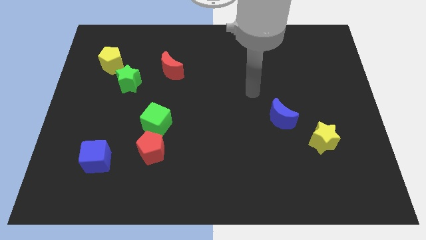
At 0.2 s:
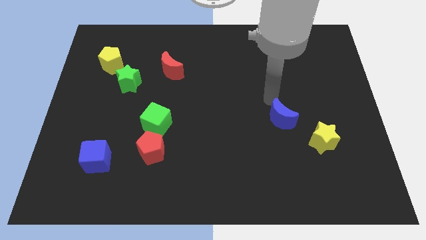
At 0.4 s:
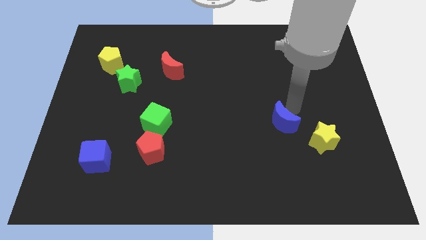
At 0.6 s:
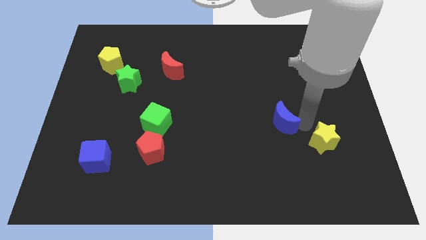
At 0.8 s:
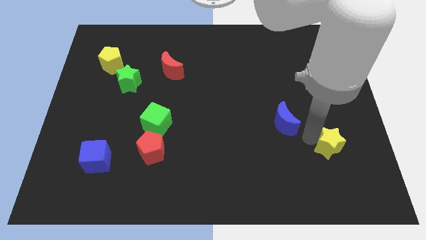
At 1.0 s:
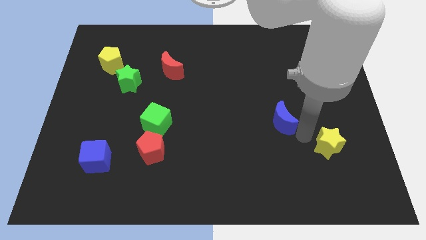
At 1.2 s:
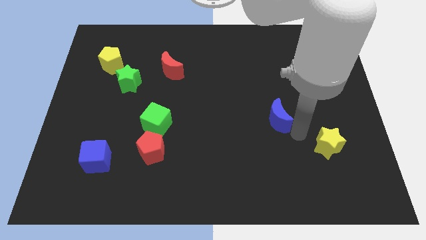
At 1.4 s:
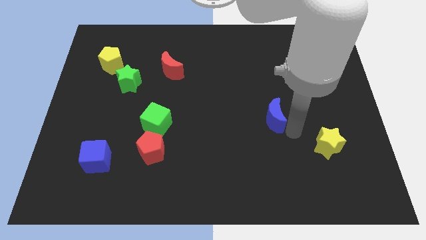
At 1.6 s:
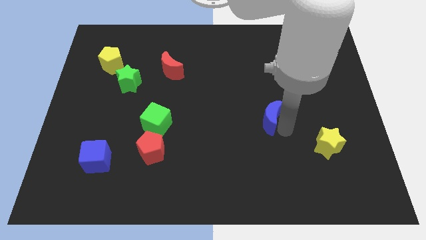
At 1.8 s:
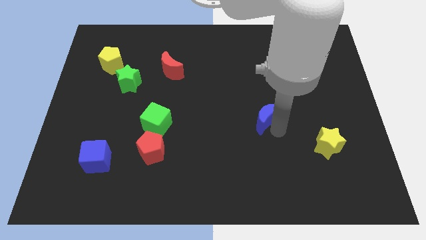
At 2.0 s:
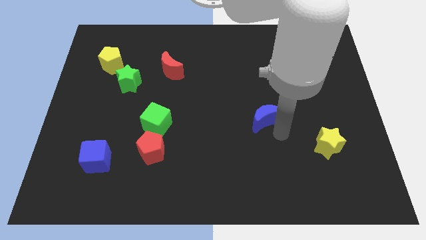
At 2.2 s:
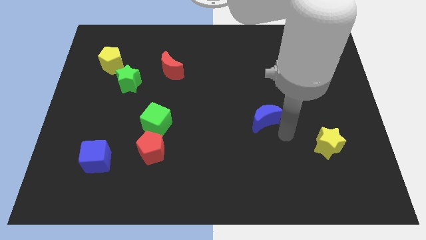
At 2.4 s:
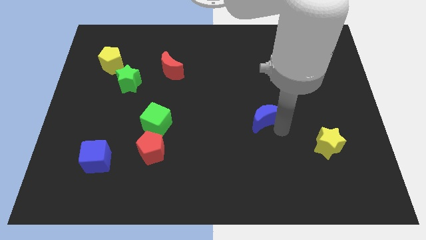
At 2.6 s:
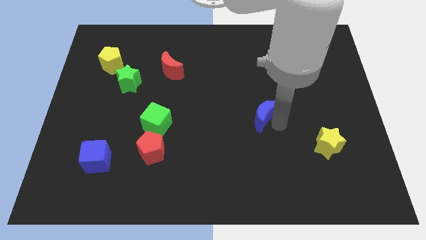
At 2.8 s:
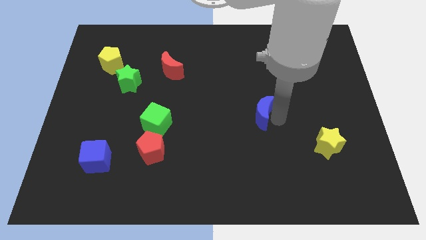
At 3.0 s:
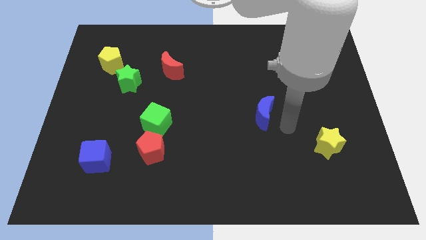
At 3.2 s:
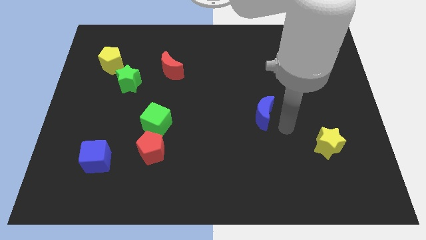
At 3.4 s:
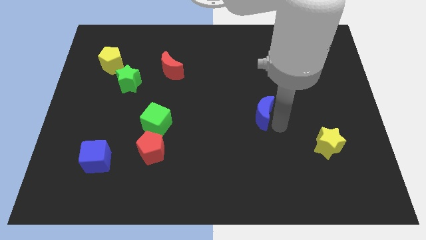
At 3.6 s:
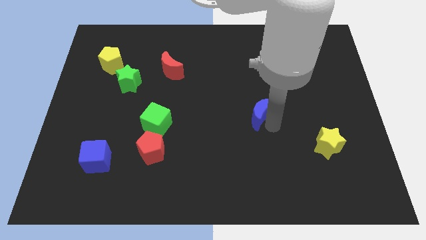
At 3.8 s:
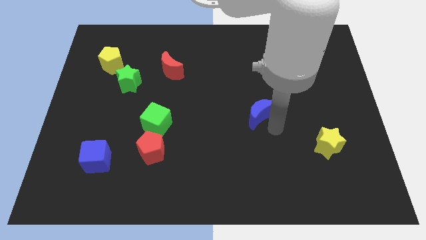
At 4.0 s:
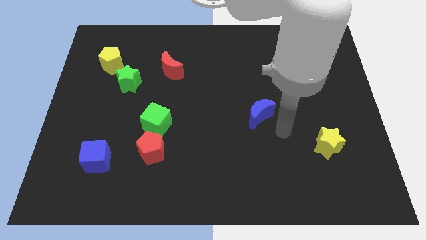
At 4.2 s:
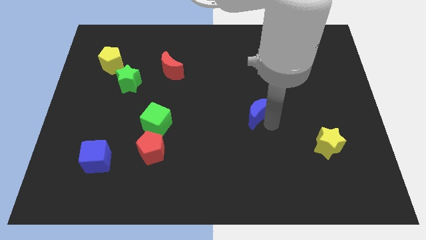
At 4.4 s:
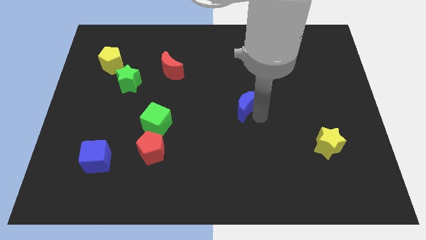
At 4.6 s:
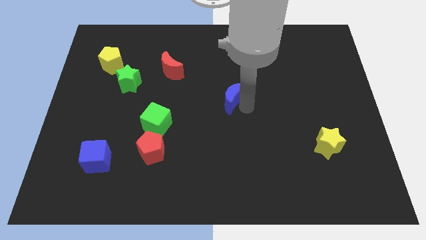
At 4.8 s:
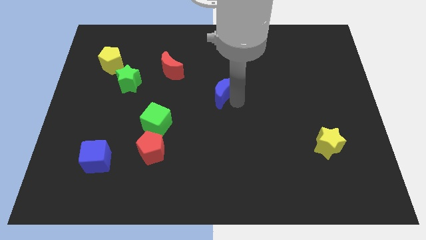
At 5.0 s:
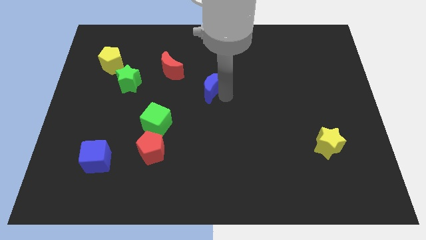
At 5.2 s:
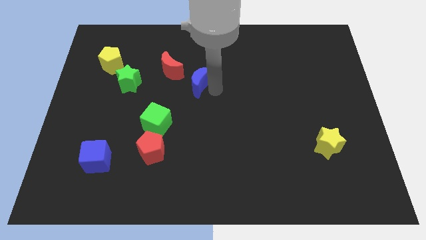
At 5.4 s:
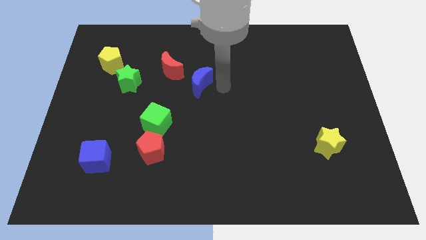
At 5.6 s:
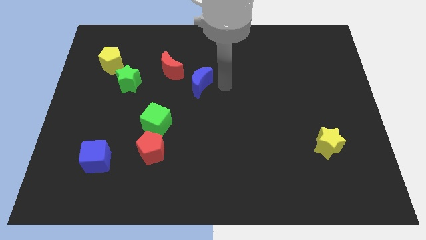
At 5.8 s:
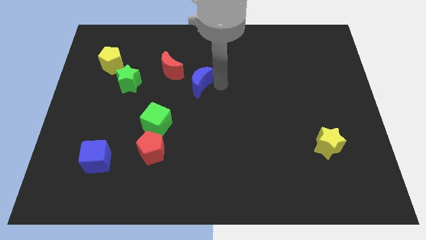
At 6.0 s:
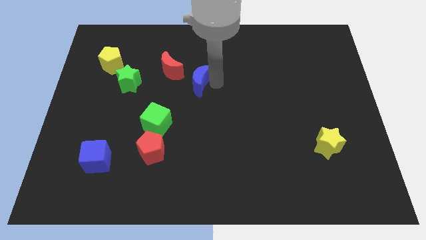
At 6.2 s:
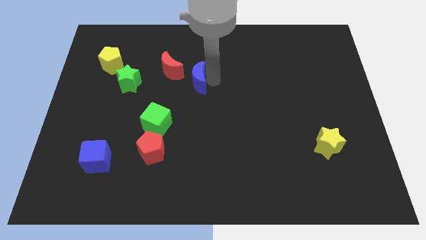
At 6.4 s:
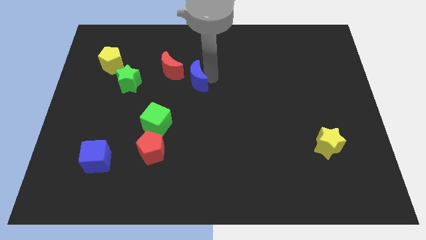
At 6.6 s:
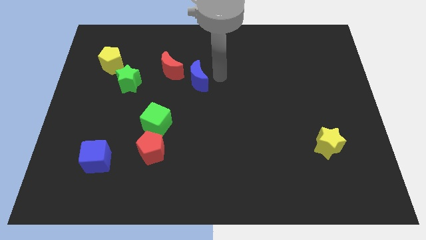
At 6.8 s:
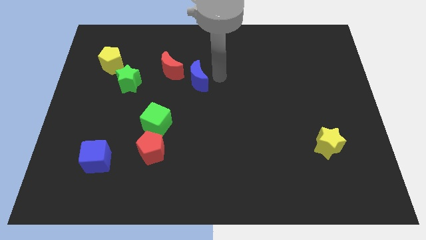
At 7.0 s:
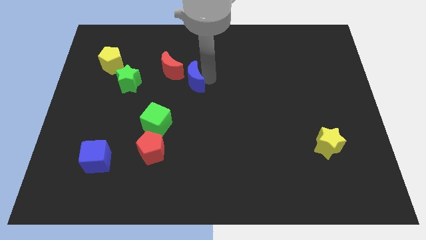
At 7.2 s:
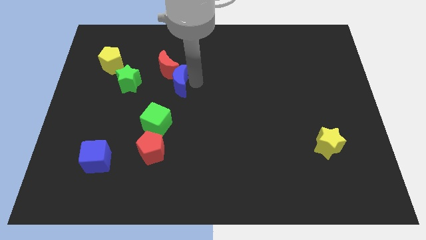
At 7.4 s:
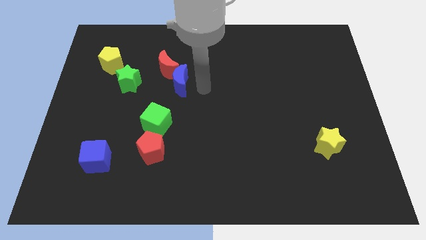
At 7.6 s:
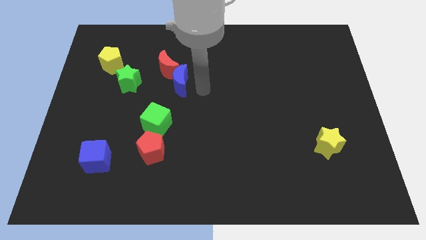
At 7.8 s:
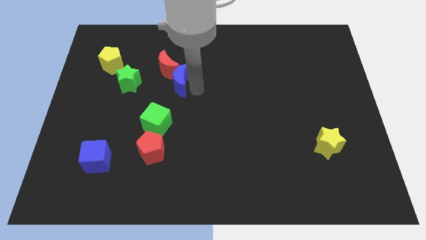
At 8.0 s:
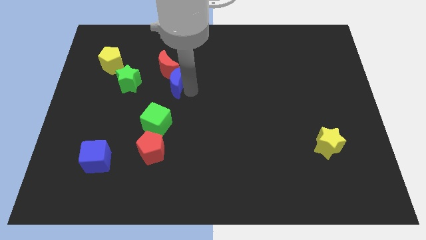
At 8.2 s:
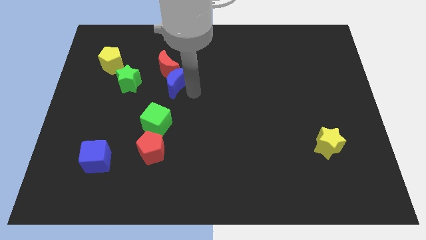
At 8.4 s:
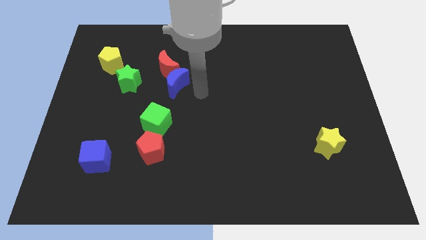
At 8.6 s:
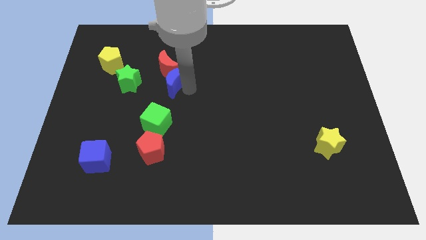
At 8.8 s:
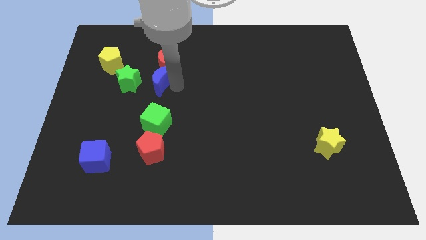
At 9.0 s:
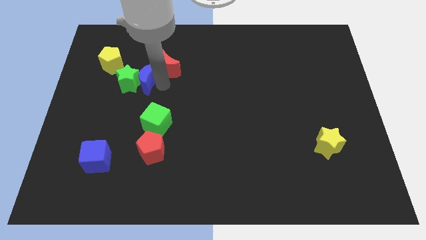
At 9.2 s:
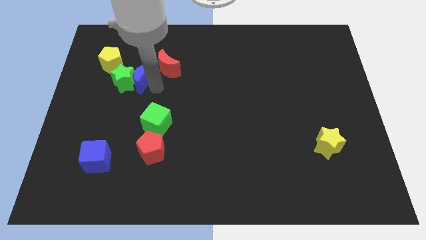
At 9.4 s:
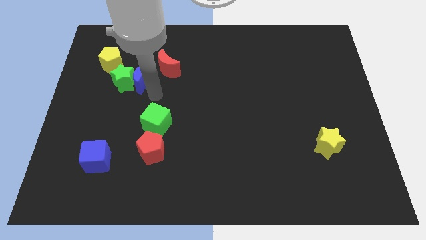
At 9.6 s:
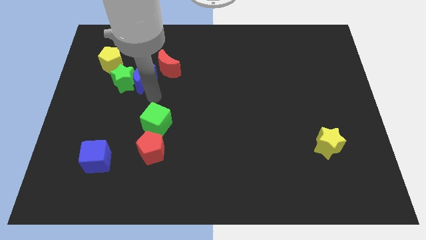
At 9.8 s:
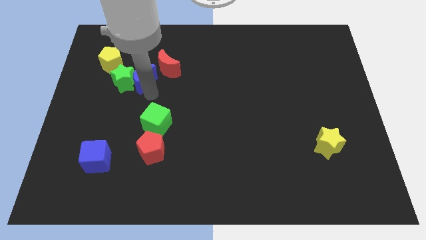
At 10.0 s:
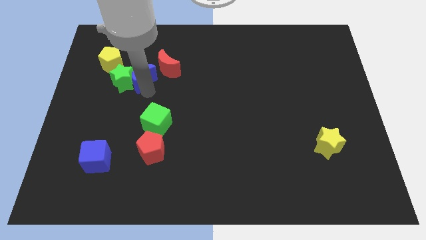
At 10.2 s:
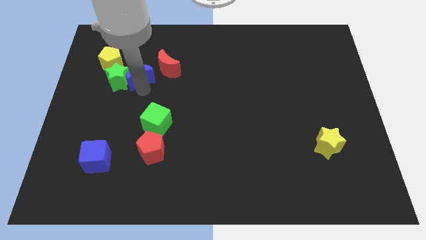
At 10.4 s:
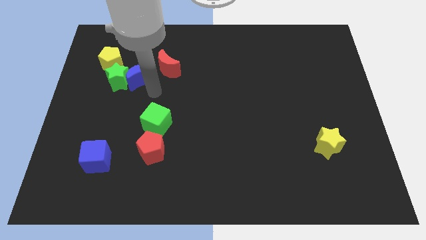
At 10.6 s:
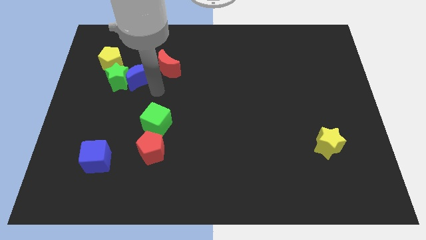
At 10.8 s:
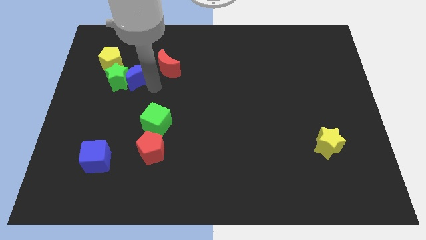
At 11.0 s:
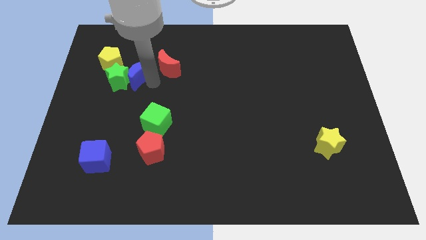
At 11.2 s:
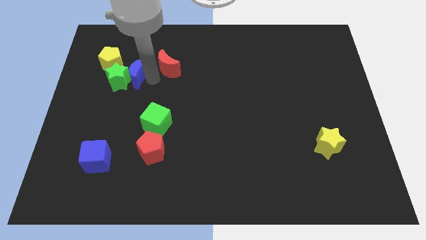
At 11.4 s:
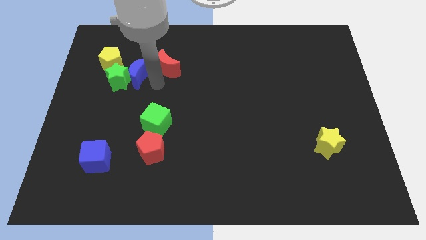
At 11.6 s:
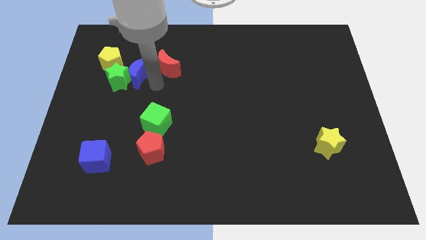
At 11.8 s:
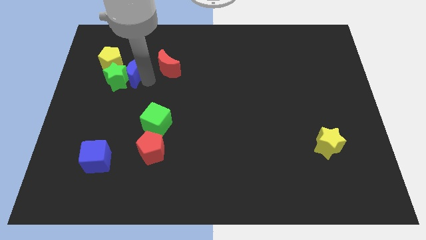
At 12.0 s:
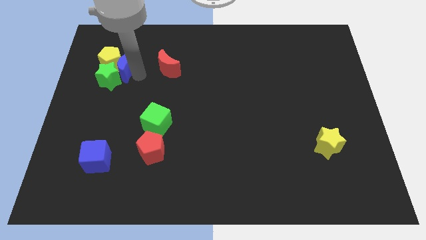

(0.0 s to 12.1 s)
put the blue moon close to the yellow pentagon

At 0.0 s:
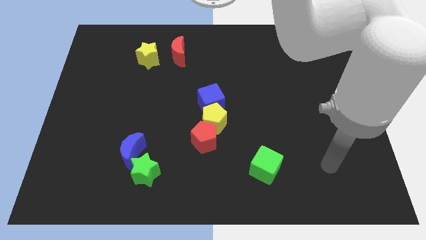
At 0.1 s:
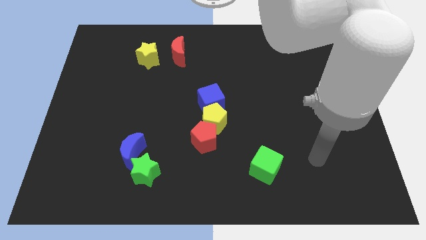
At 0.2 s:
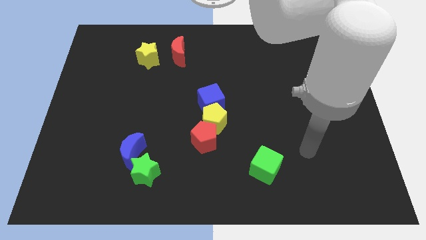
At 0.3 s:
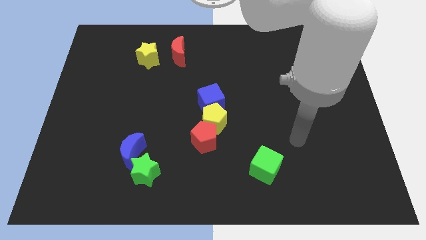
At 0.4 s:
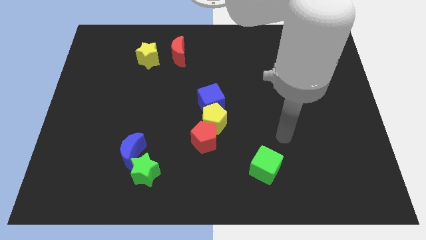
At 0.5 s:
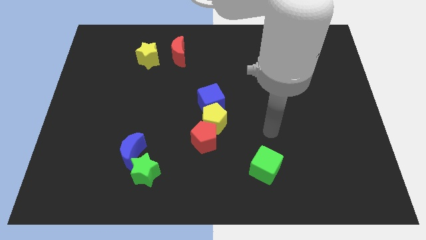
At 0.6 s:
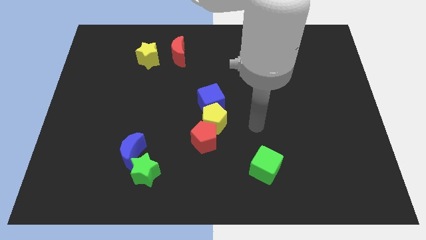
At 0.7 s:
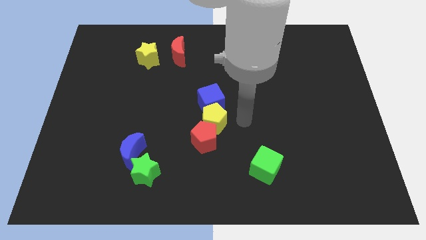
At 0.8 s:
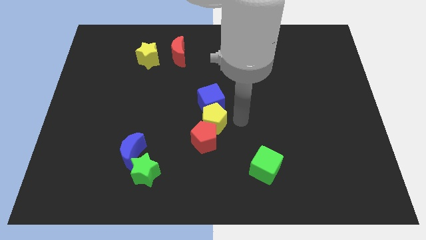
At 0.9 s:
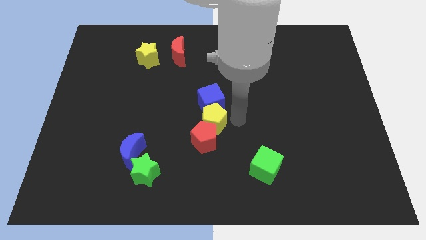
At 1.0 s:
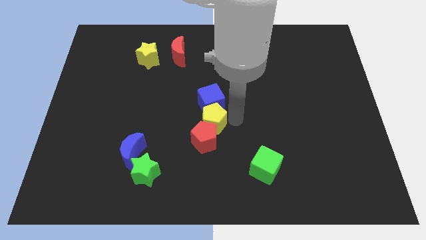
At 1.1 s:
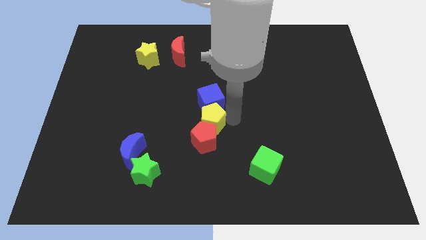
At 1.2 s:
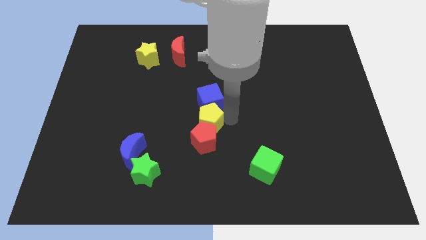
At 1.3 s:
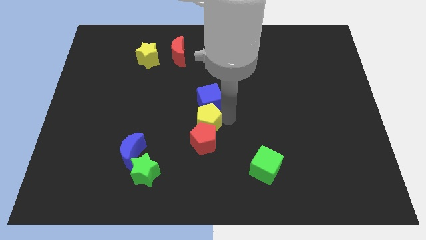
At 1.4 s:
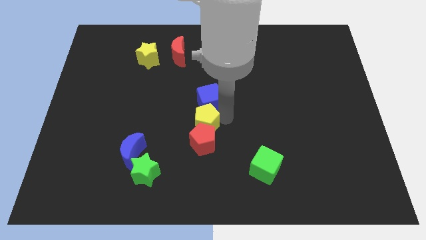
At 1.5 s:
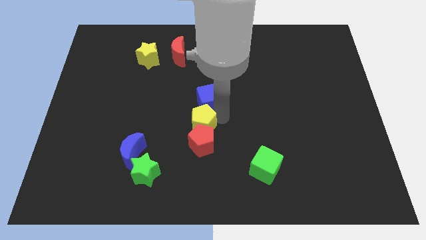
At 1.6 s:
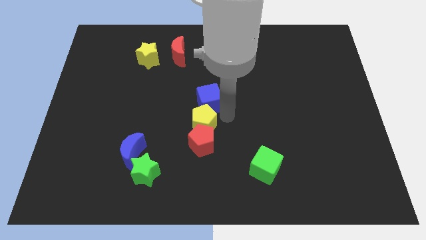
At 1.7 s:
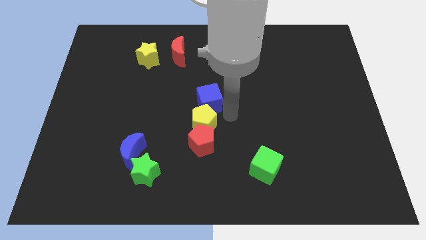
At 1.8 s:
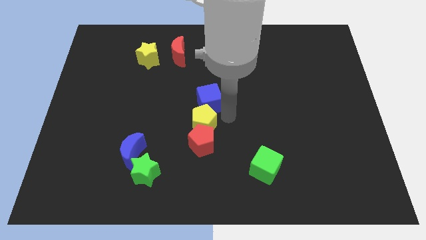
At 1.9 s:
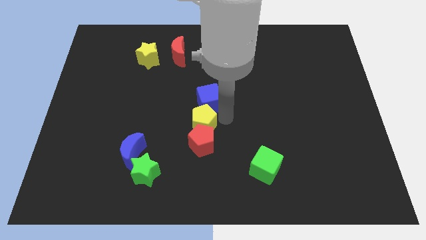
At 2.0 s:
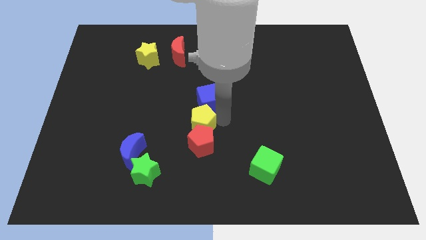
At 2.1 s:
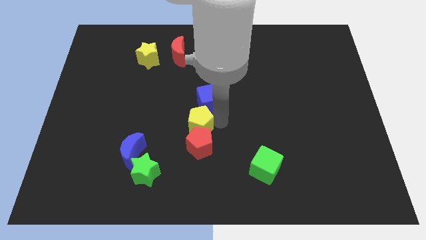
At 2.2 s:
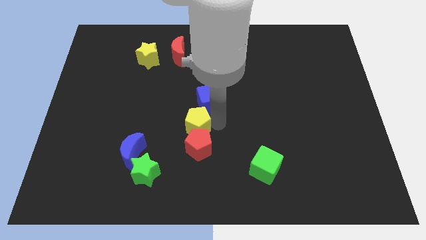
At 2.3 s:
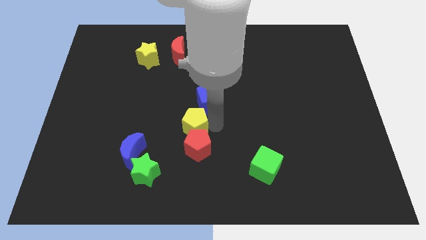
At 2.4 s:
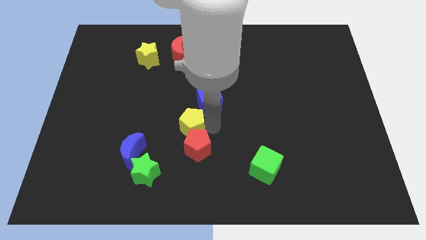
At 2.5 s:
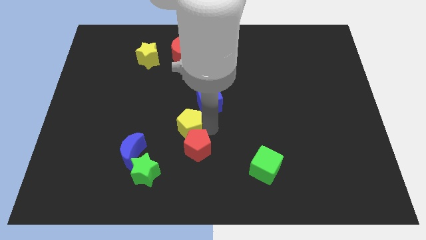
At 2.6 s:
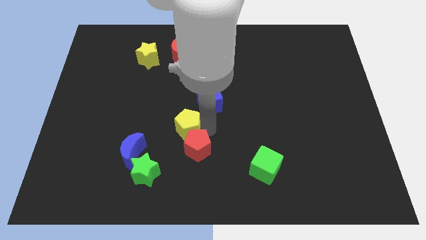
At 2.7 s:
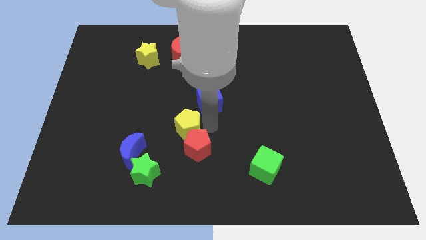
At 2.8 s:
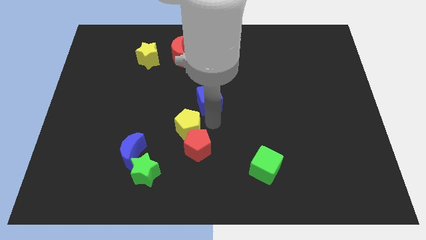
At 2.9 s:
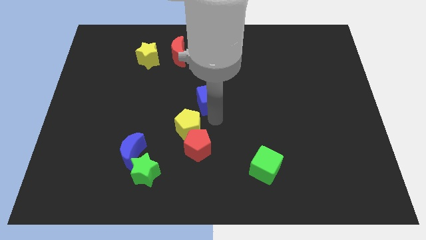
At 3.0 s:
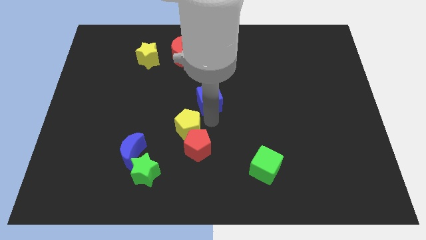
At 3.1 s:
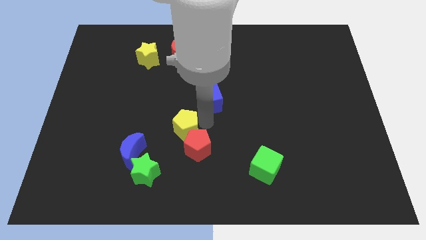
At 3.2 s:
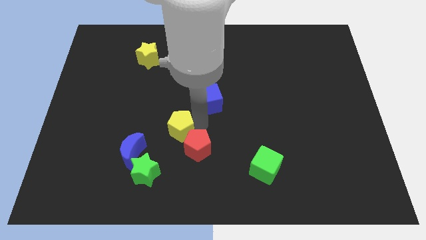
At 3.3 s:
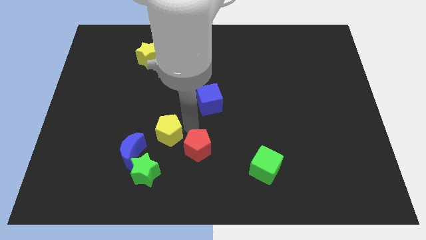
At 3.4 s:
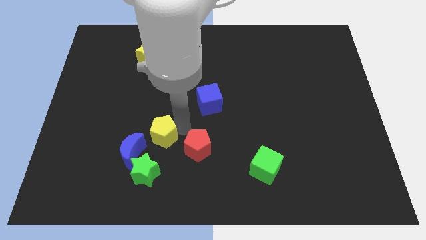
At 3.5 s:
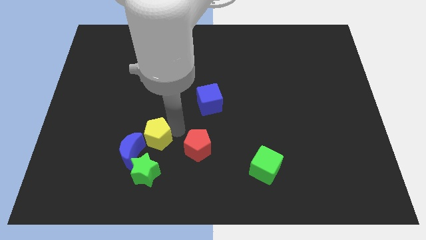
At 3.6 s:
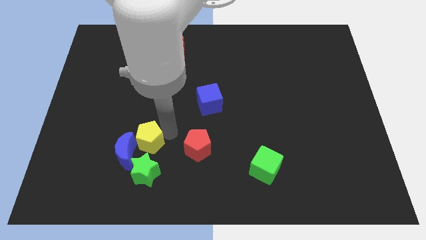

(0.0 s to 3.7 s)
slide the yellow pentagon towards the blue moon
